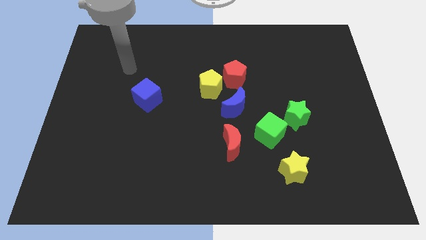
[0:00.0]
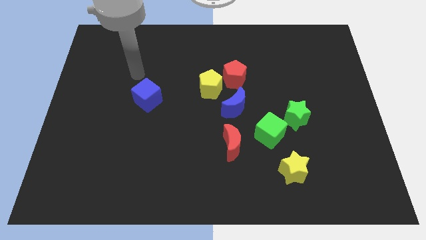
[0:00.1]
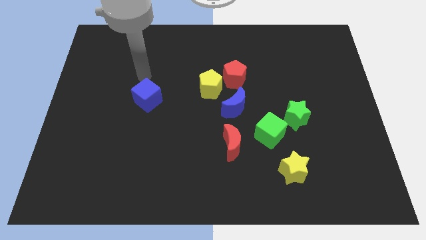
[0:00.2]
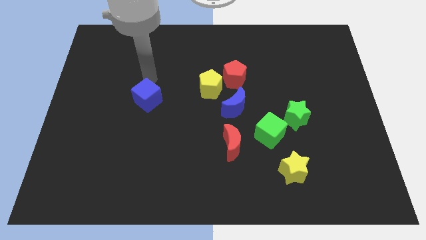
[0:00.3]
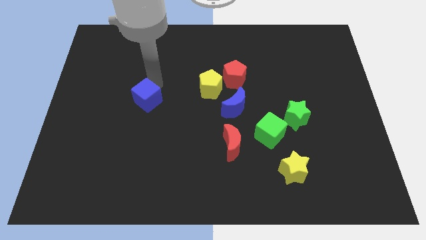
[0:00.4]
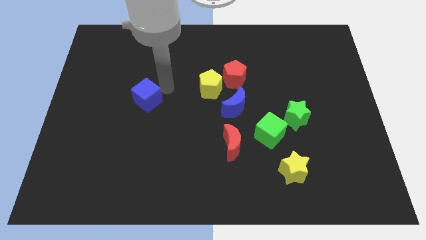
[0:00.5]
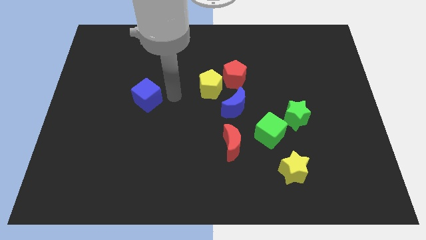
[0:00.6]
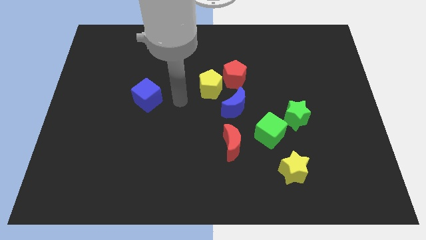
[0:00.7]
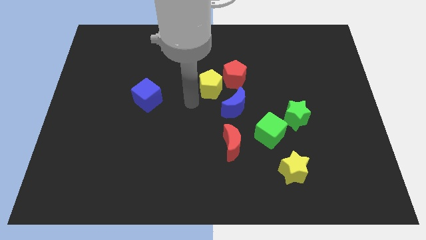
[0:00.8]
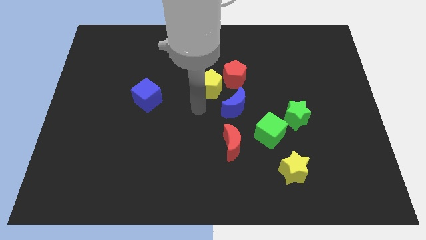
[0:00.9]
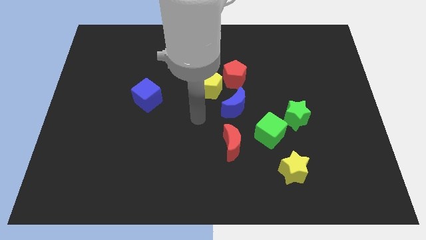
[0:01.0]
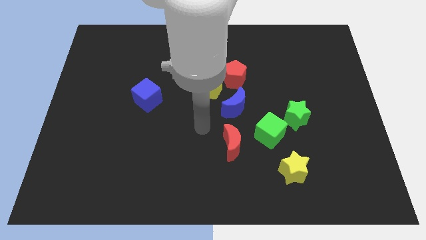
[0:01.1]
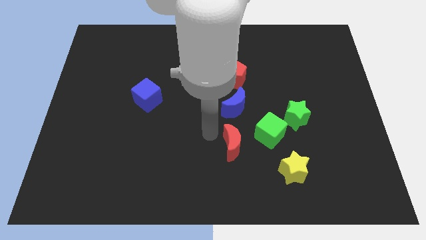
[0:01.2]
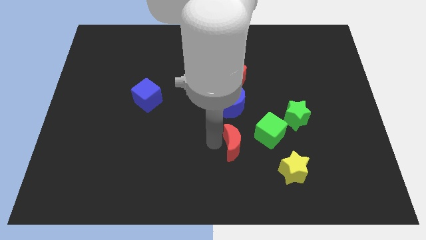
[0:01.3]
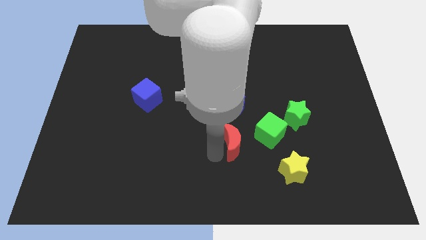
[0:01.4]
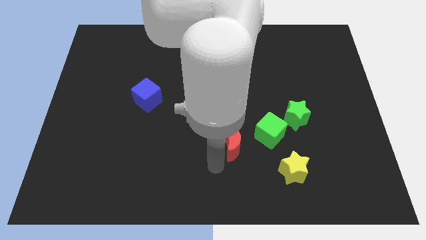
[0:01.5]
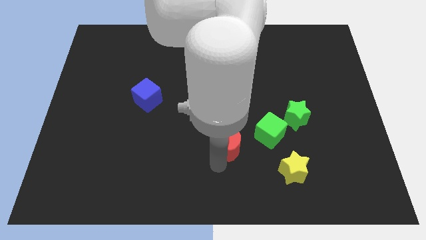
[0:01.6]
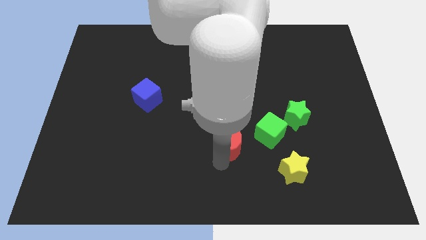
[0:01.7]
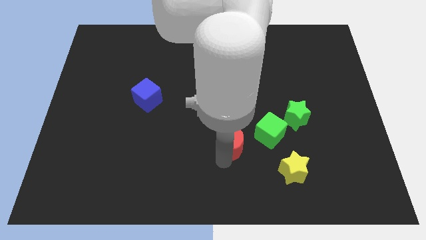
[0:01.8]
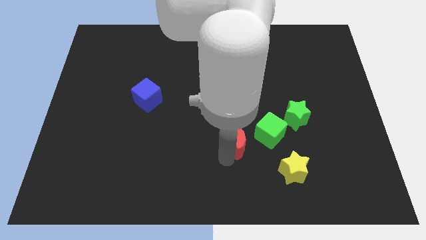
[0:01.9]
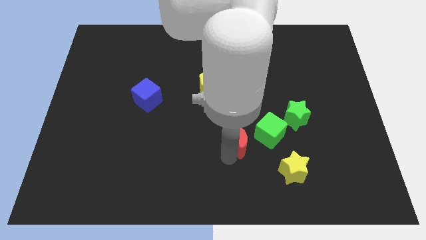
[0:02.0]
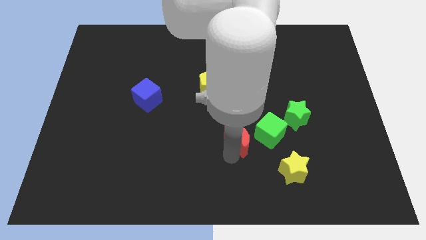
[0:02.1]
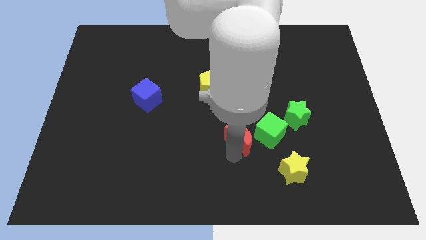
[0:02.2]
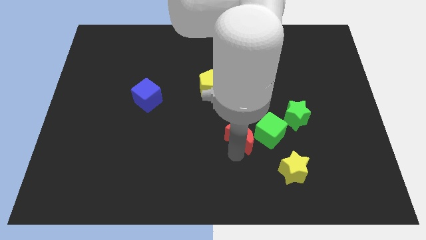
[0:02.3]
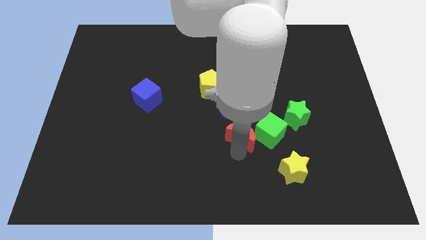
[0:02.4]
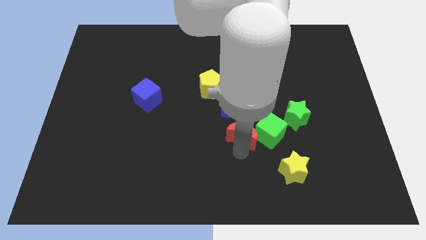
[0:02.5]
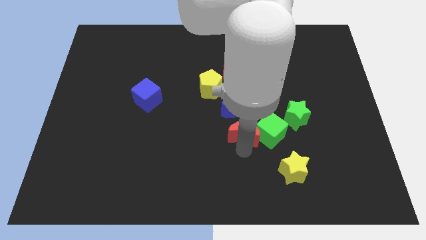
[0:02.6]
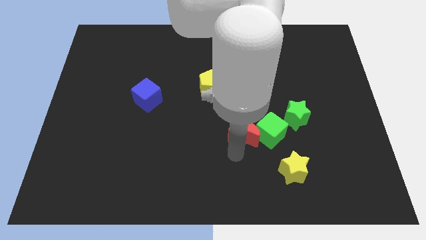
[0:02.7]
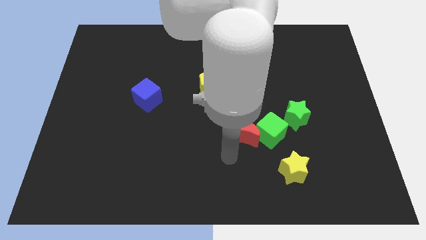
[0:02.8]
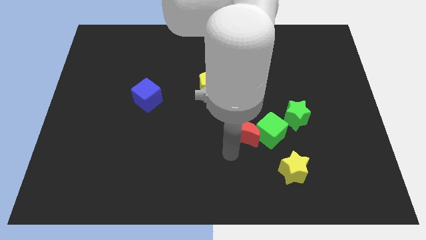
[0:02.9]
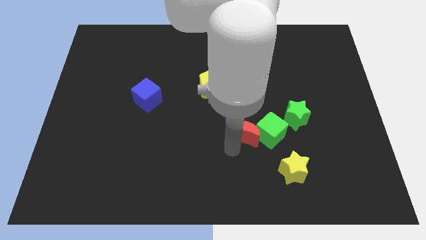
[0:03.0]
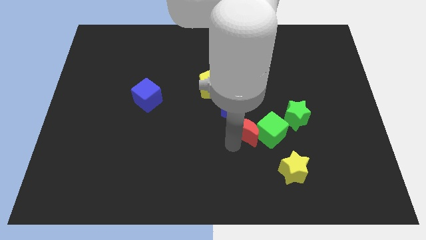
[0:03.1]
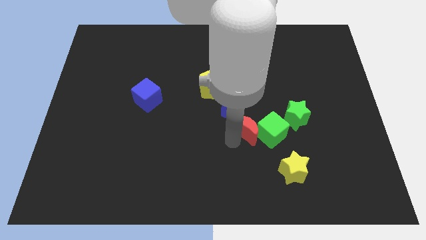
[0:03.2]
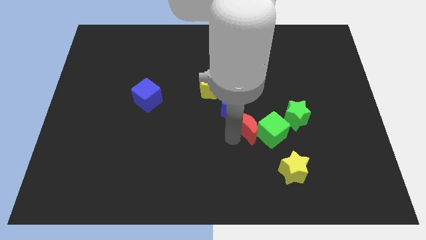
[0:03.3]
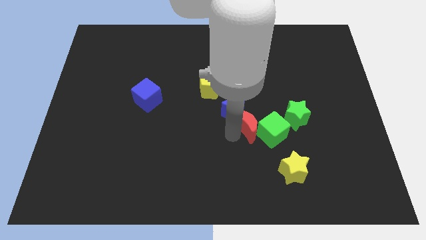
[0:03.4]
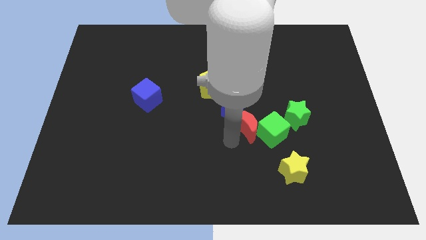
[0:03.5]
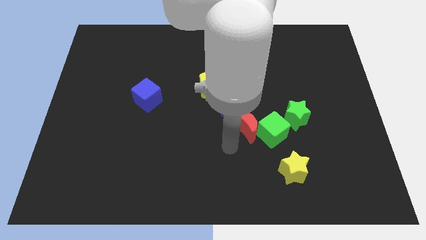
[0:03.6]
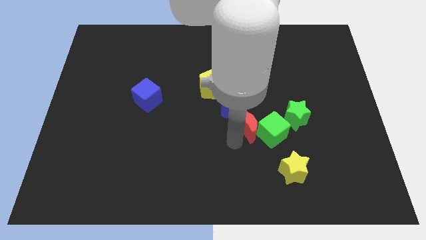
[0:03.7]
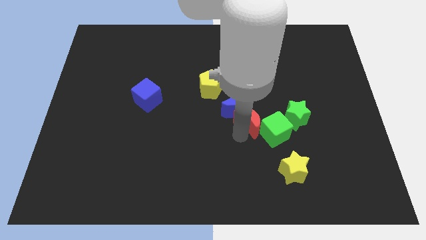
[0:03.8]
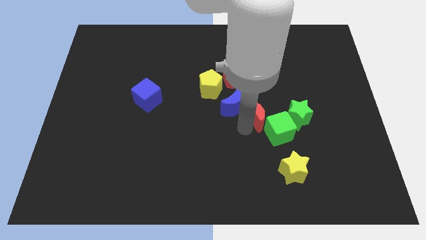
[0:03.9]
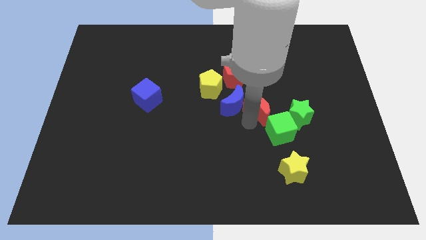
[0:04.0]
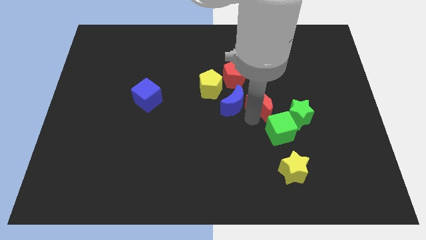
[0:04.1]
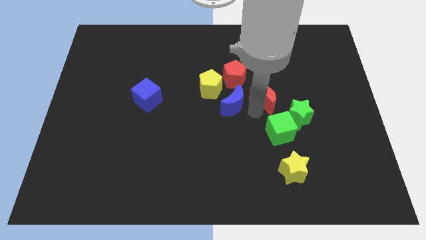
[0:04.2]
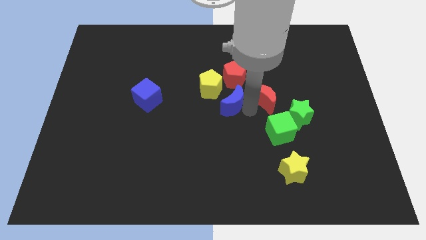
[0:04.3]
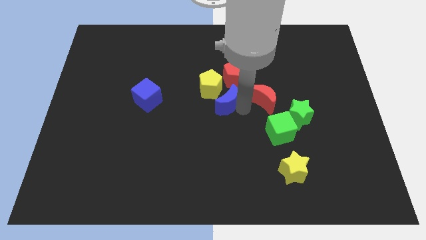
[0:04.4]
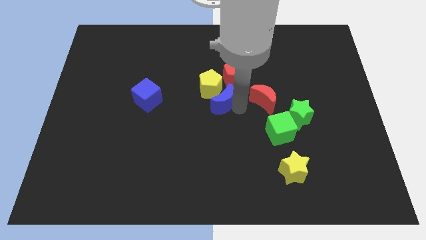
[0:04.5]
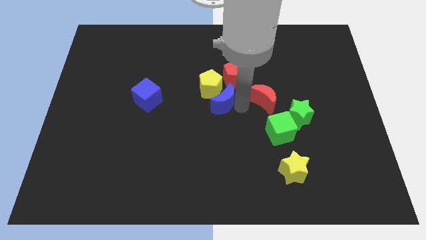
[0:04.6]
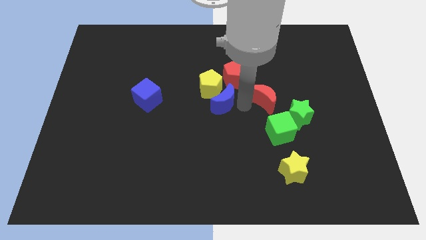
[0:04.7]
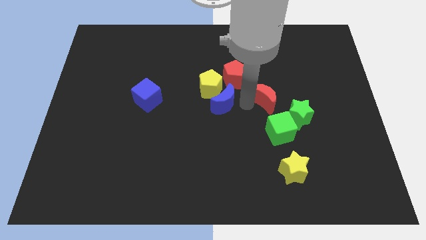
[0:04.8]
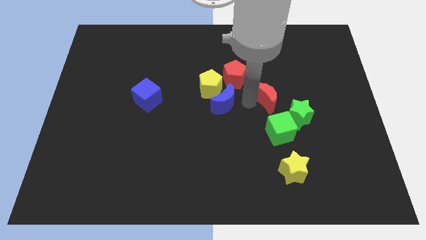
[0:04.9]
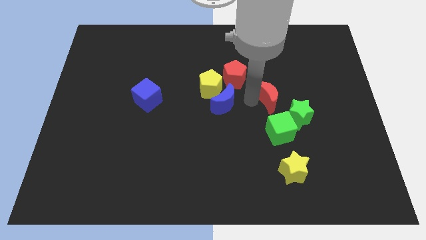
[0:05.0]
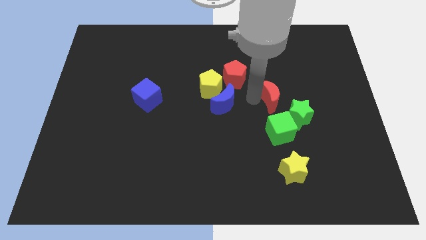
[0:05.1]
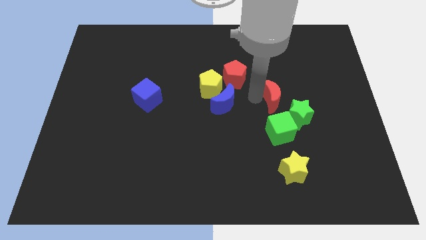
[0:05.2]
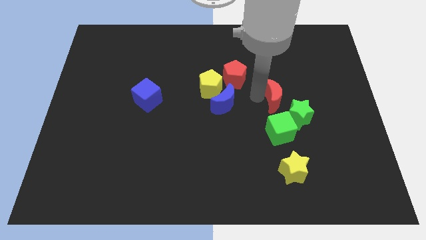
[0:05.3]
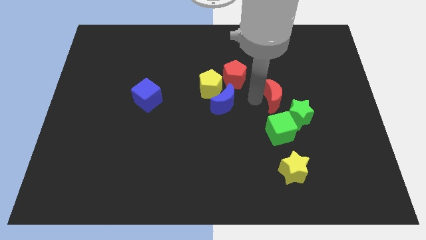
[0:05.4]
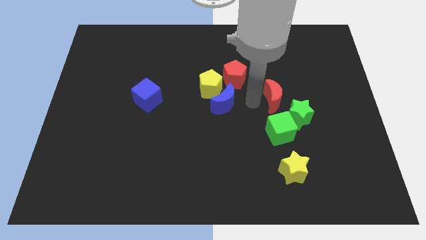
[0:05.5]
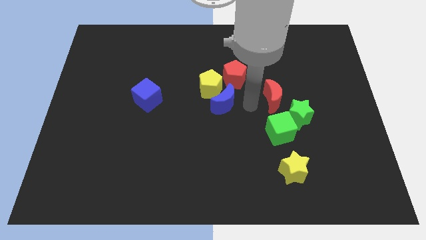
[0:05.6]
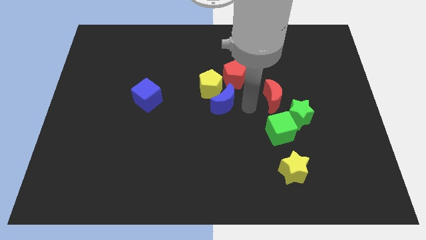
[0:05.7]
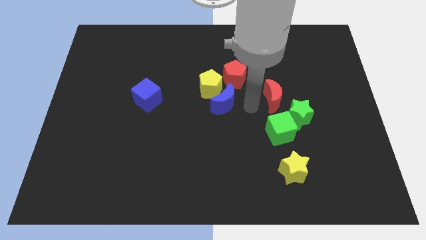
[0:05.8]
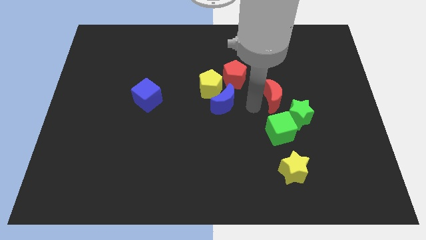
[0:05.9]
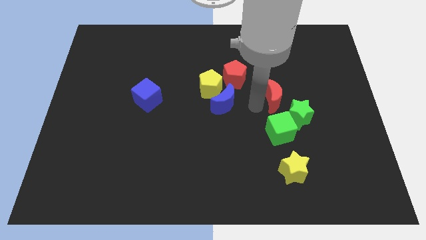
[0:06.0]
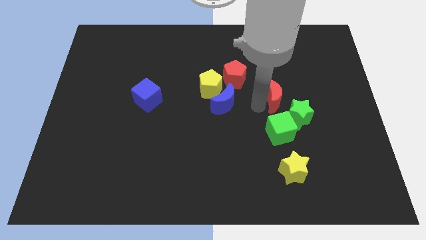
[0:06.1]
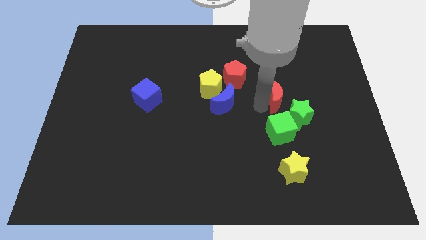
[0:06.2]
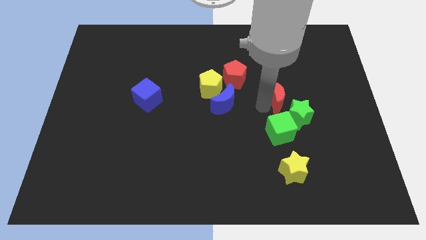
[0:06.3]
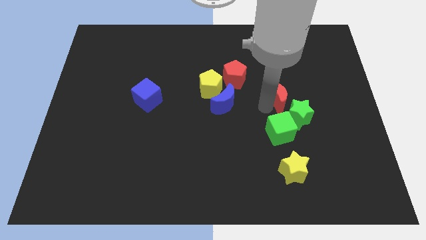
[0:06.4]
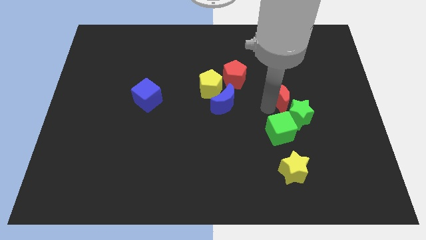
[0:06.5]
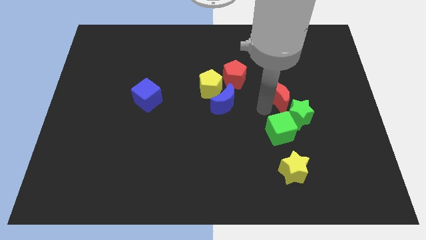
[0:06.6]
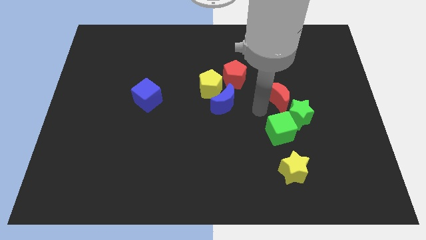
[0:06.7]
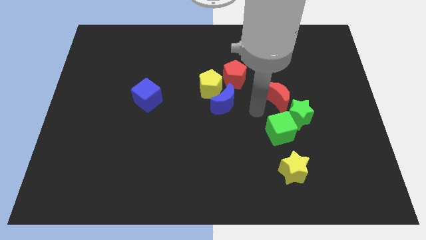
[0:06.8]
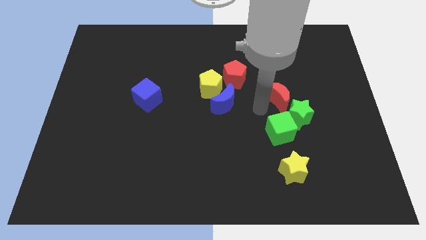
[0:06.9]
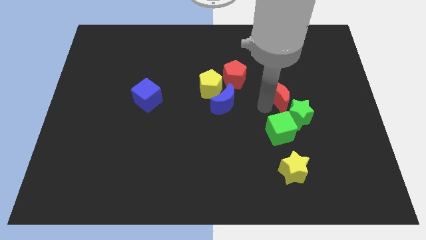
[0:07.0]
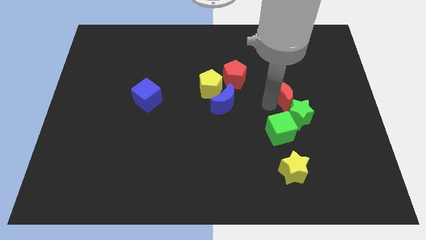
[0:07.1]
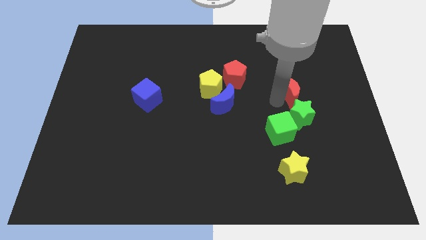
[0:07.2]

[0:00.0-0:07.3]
push the red moon upwards and right diagonally

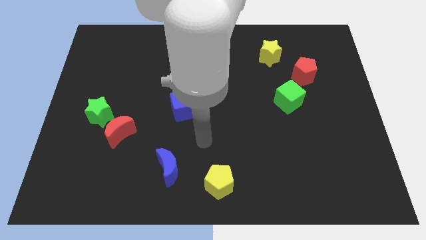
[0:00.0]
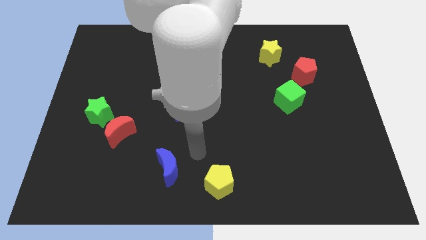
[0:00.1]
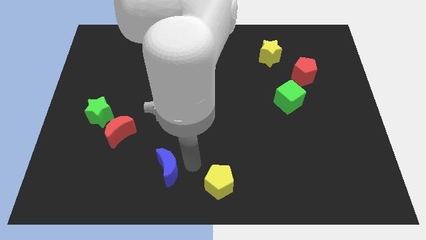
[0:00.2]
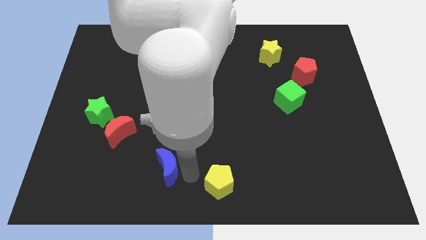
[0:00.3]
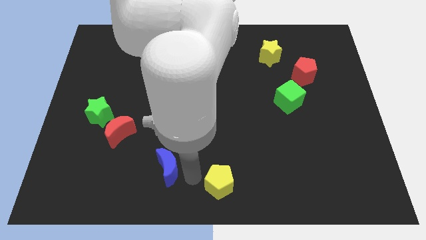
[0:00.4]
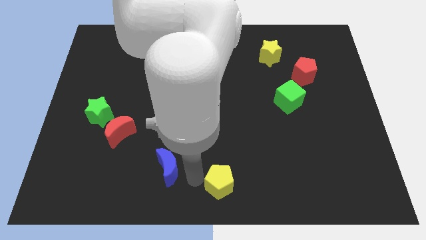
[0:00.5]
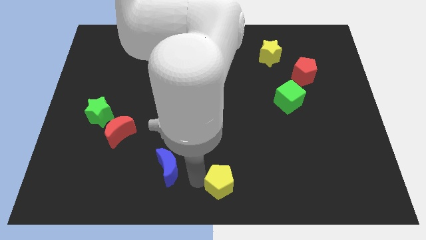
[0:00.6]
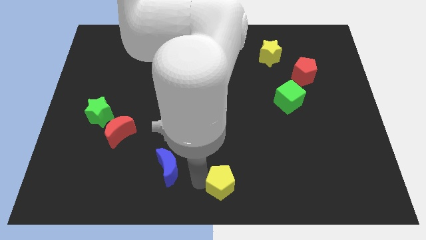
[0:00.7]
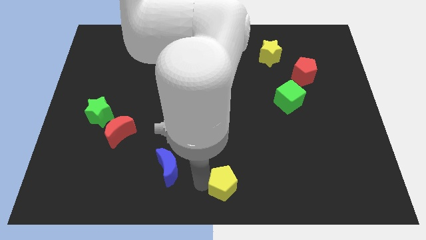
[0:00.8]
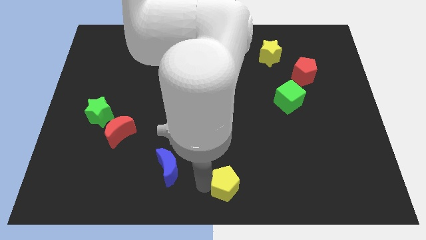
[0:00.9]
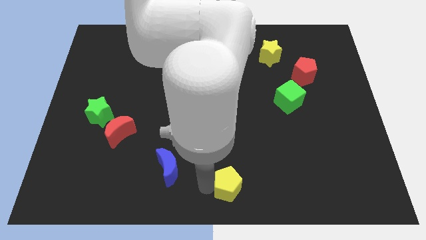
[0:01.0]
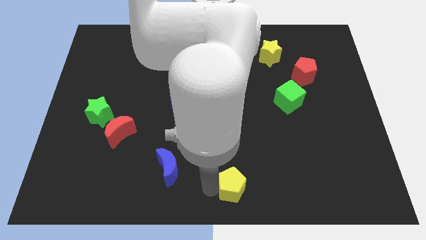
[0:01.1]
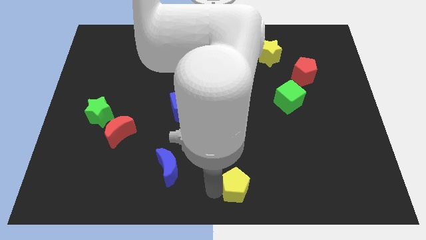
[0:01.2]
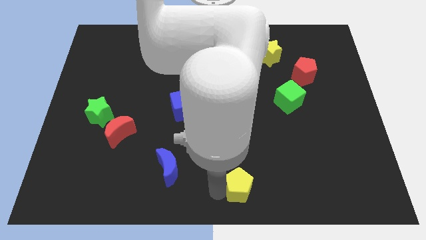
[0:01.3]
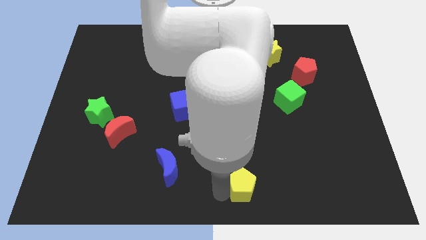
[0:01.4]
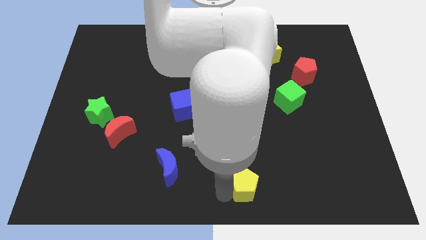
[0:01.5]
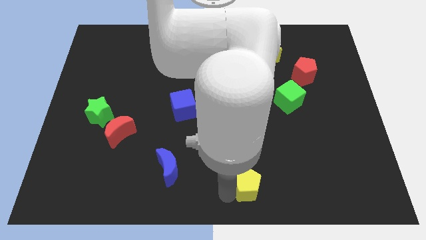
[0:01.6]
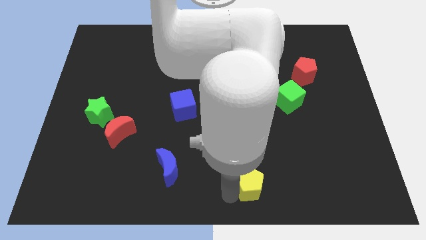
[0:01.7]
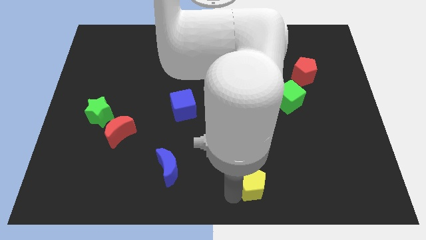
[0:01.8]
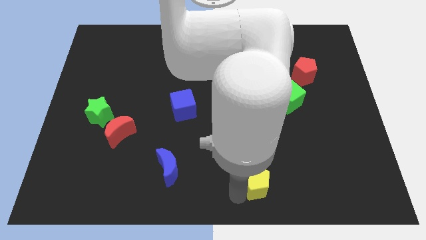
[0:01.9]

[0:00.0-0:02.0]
slightly move the yellow pentagon right
